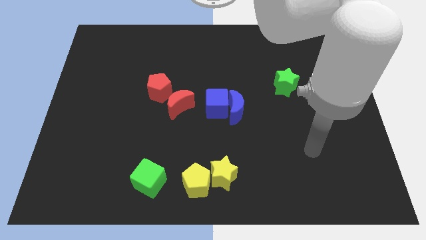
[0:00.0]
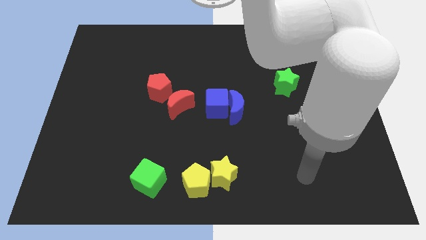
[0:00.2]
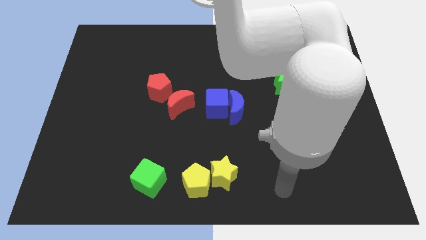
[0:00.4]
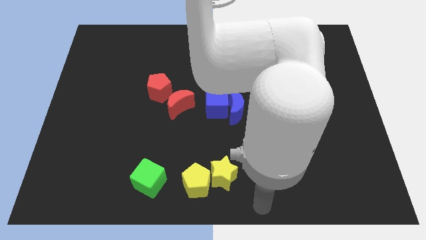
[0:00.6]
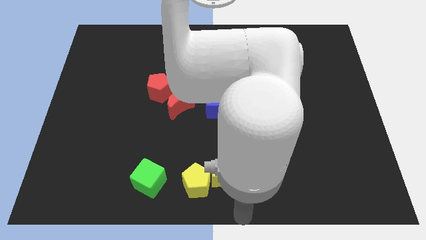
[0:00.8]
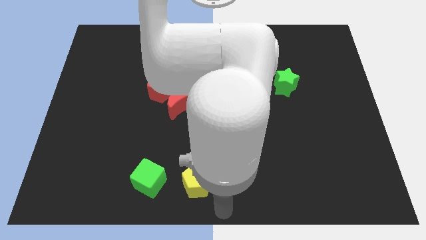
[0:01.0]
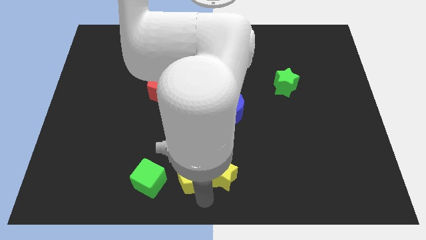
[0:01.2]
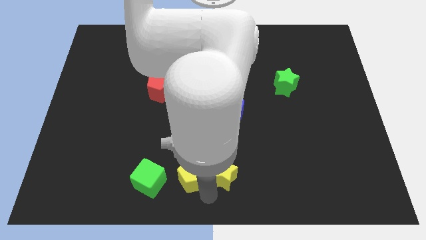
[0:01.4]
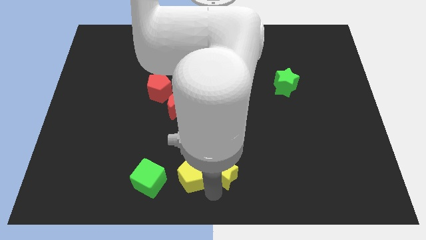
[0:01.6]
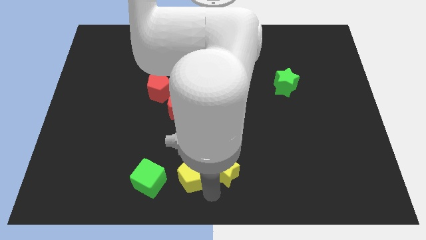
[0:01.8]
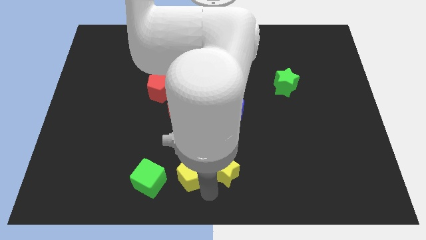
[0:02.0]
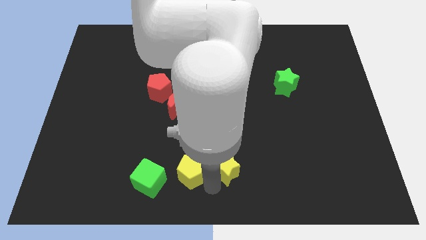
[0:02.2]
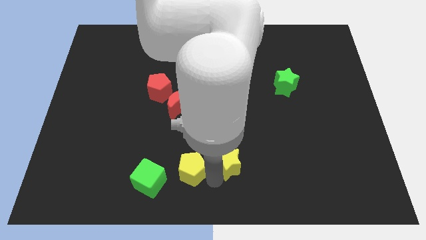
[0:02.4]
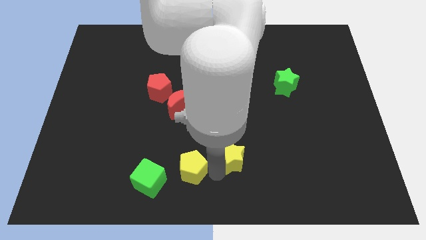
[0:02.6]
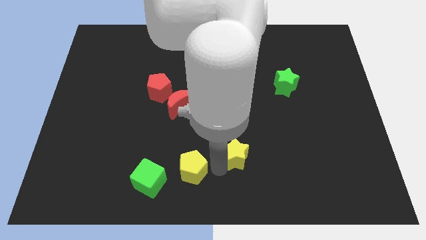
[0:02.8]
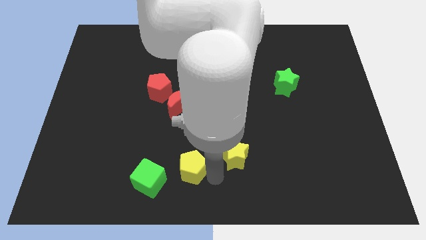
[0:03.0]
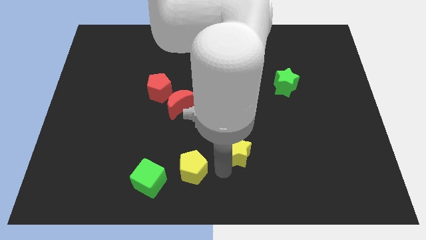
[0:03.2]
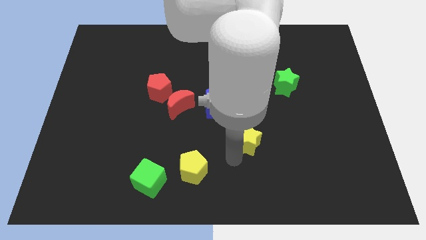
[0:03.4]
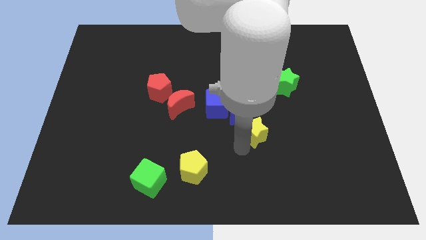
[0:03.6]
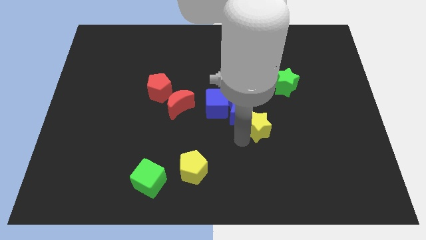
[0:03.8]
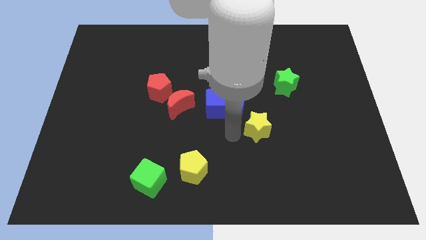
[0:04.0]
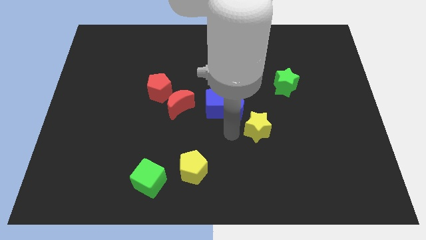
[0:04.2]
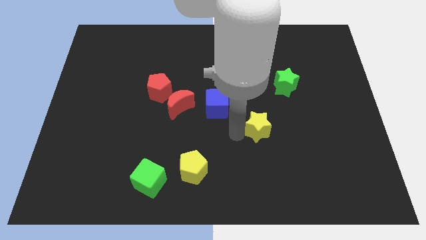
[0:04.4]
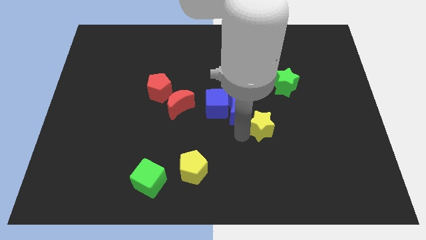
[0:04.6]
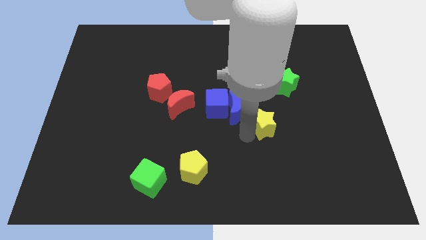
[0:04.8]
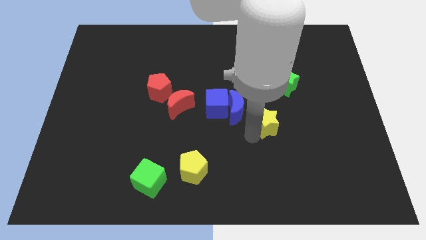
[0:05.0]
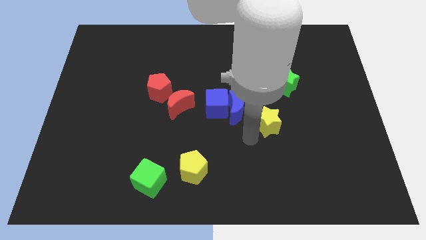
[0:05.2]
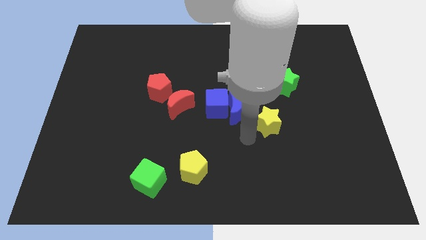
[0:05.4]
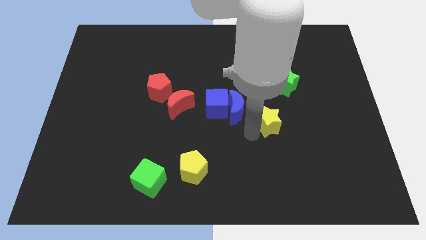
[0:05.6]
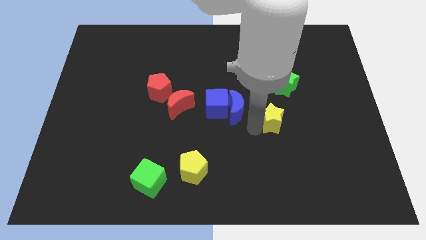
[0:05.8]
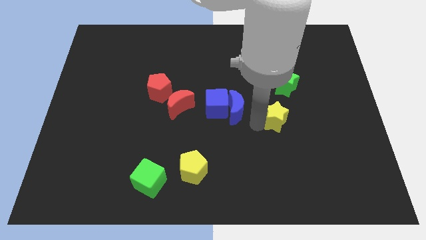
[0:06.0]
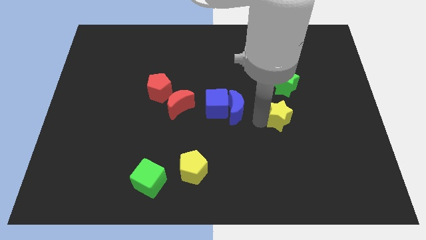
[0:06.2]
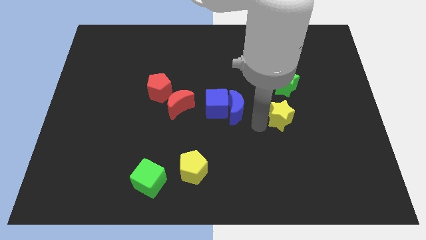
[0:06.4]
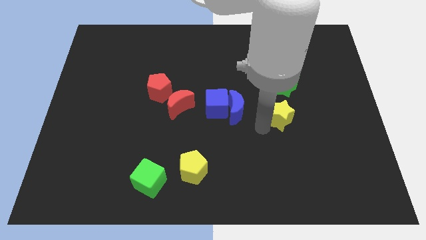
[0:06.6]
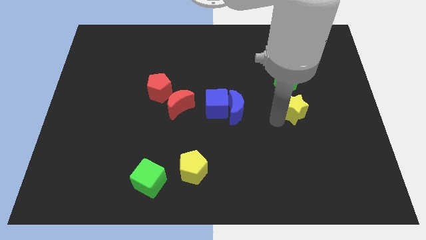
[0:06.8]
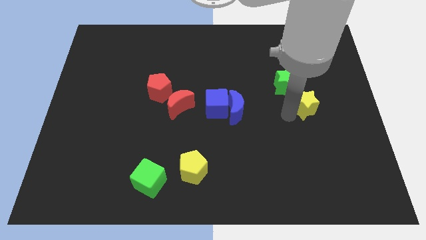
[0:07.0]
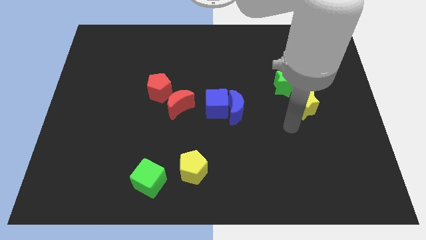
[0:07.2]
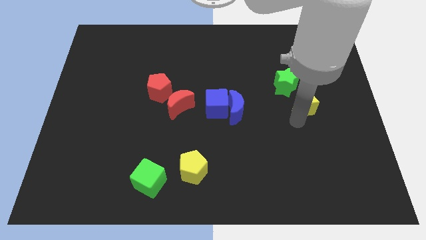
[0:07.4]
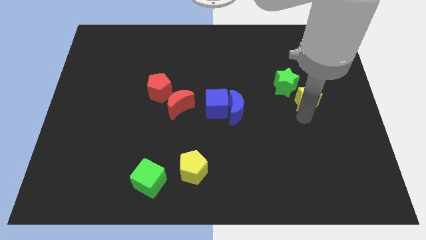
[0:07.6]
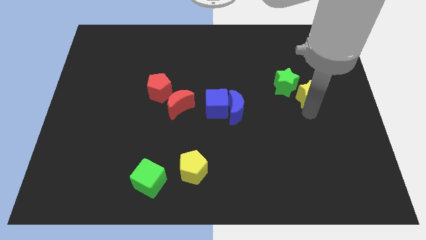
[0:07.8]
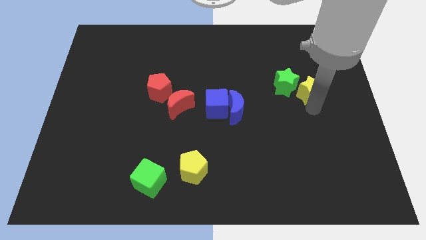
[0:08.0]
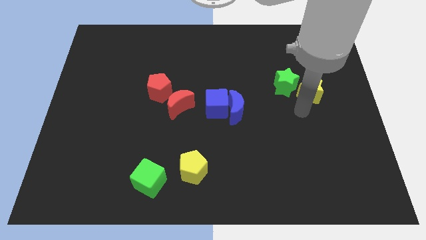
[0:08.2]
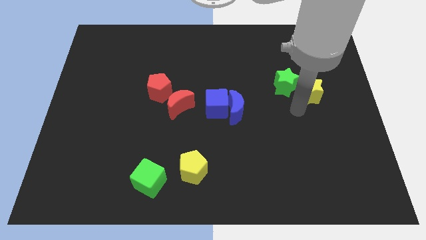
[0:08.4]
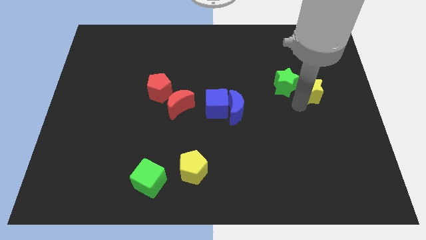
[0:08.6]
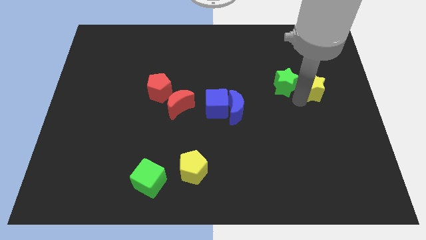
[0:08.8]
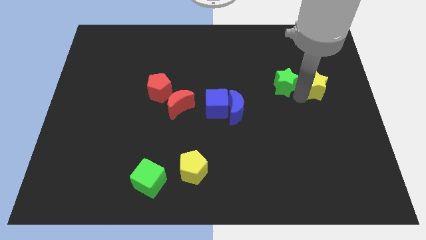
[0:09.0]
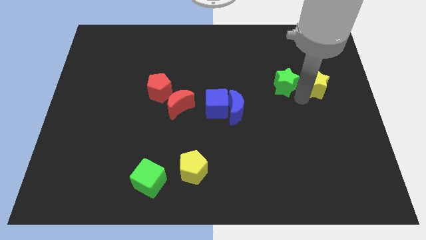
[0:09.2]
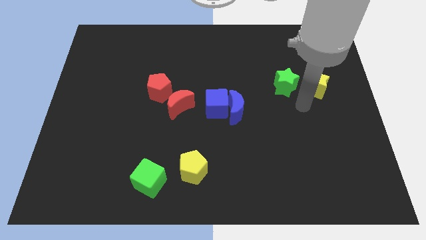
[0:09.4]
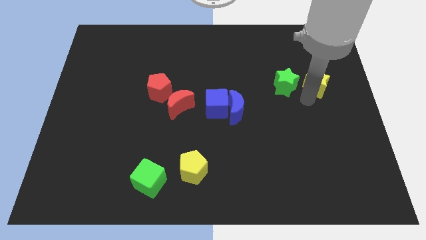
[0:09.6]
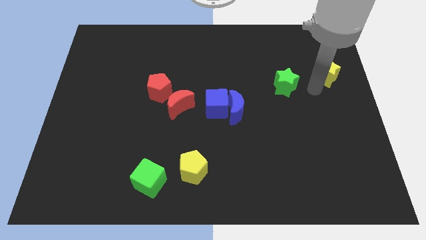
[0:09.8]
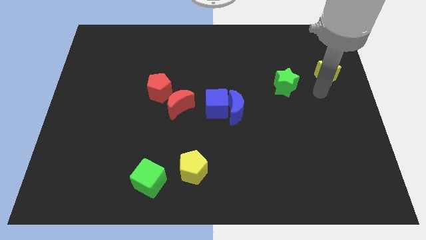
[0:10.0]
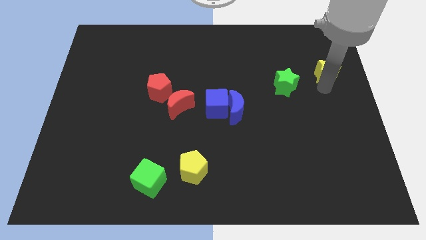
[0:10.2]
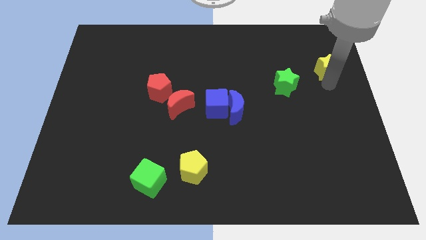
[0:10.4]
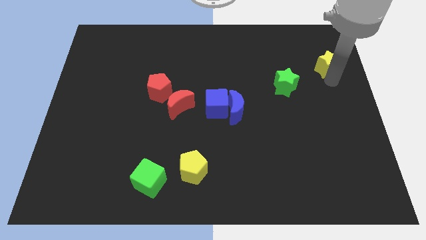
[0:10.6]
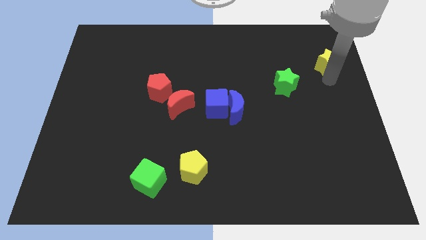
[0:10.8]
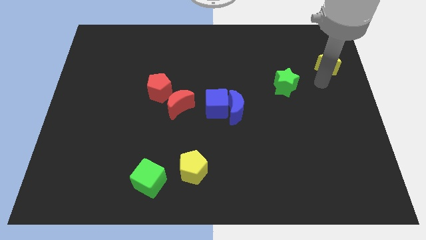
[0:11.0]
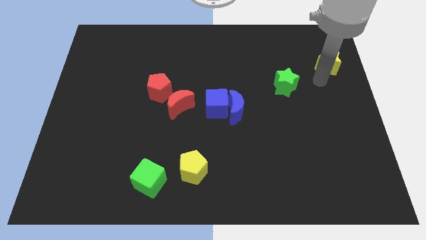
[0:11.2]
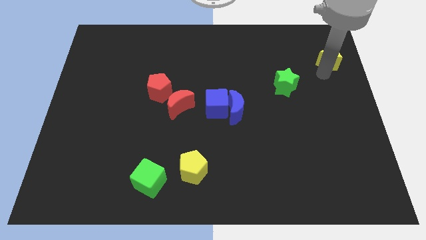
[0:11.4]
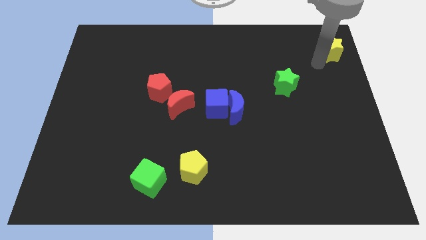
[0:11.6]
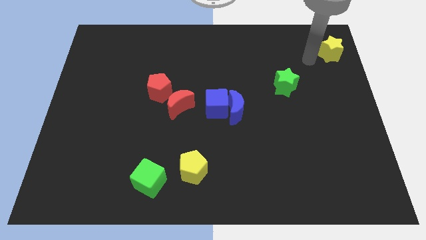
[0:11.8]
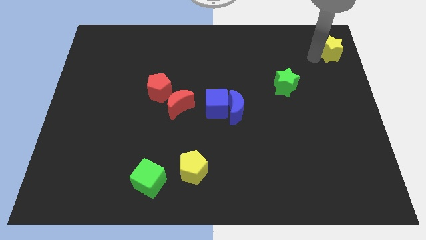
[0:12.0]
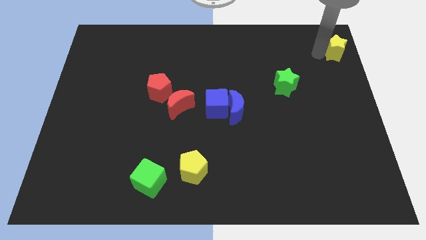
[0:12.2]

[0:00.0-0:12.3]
put the yellow star to the top right
